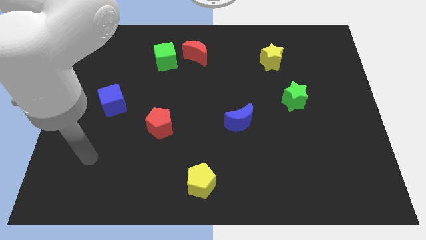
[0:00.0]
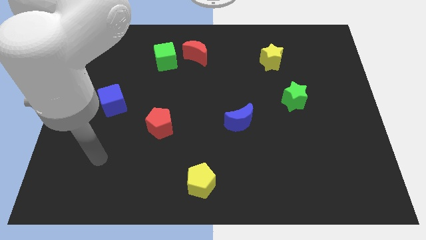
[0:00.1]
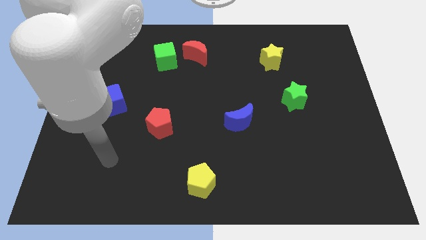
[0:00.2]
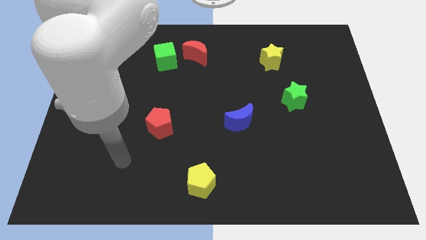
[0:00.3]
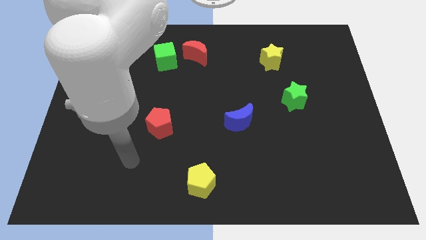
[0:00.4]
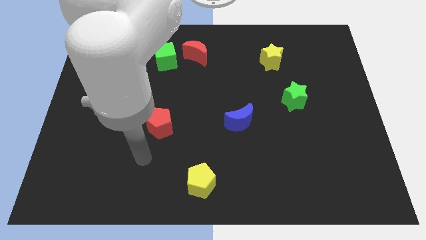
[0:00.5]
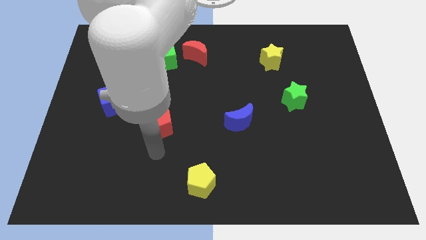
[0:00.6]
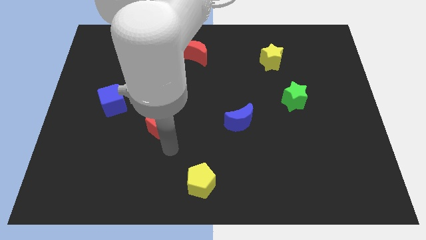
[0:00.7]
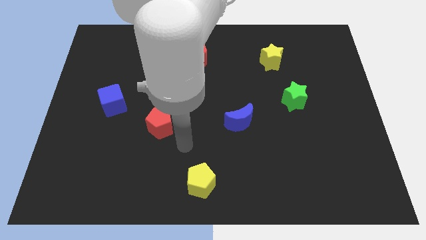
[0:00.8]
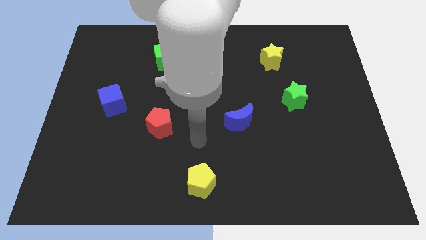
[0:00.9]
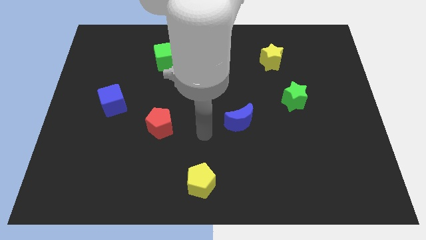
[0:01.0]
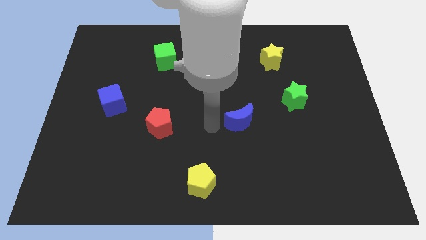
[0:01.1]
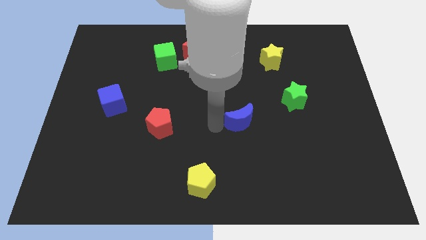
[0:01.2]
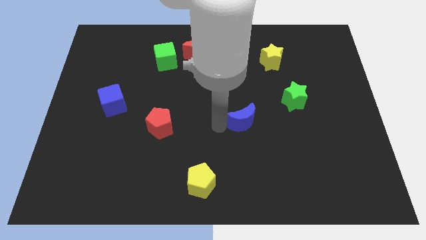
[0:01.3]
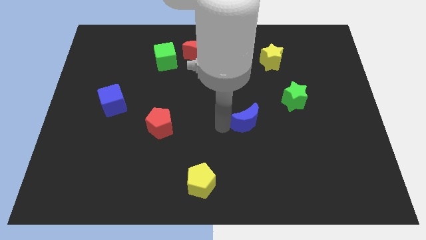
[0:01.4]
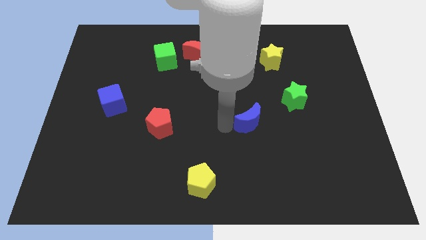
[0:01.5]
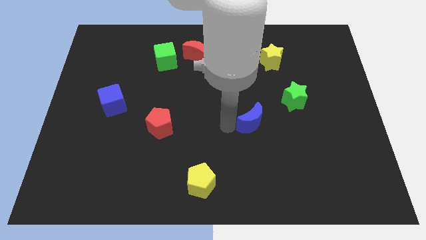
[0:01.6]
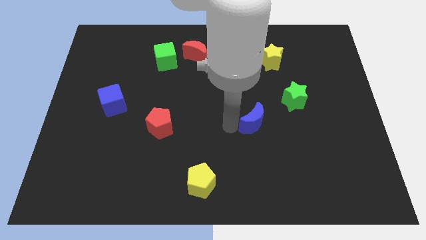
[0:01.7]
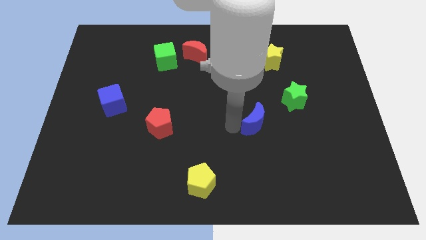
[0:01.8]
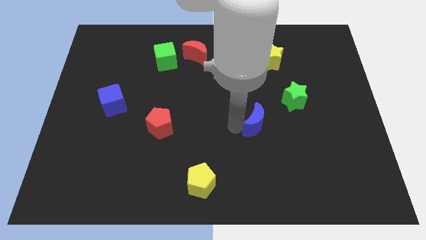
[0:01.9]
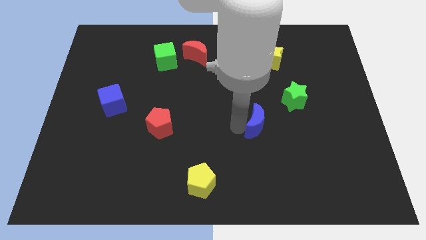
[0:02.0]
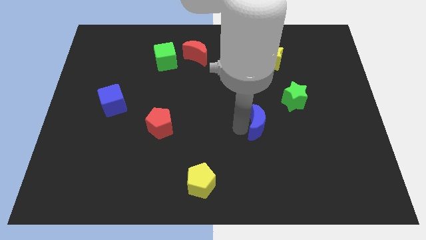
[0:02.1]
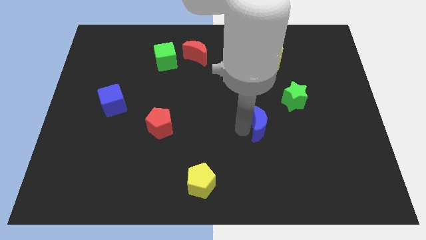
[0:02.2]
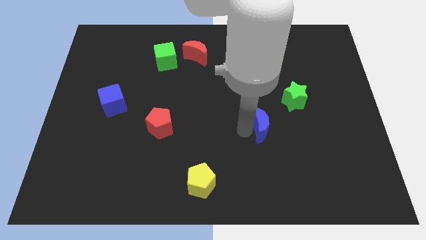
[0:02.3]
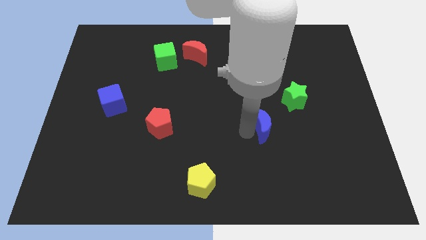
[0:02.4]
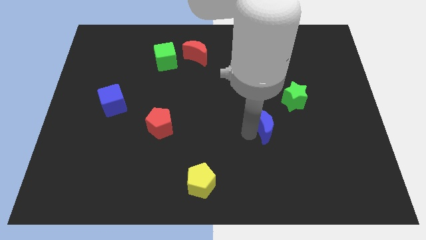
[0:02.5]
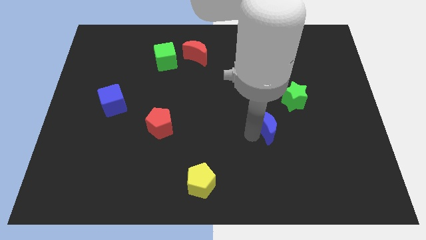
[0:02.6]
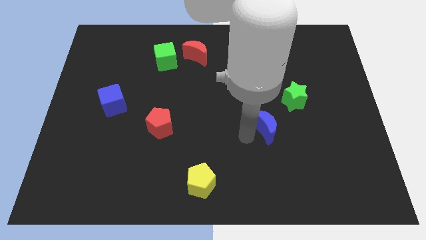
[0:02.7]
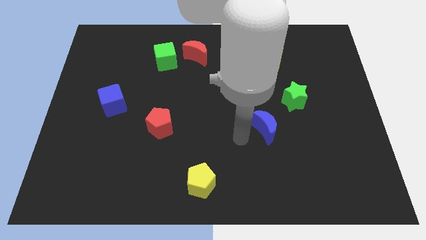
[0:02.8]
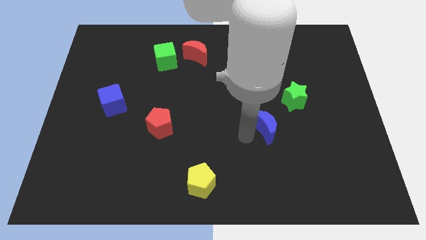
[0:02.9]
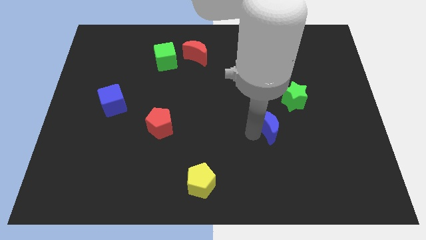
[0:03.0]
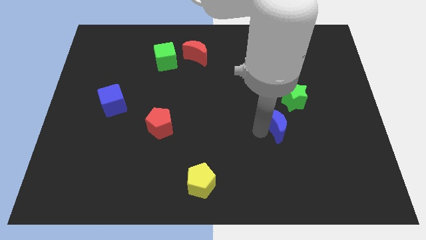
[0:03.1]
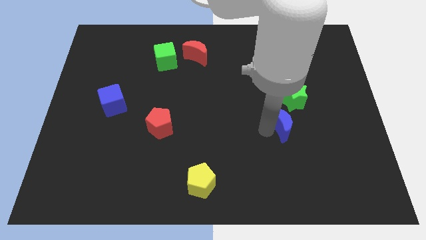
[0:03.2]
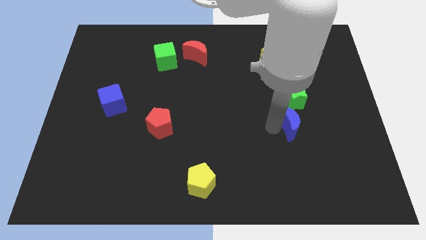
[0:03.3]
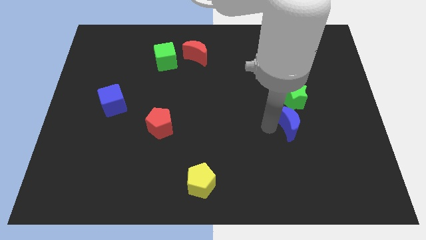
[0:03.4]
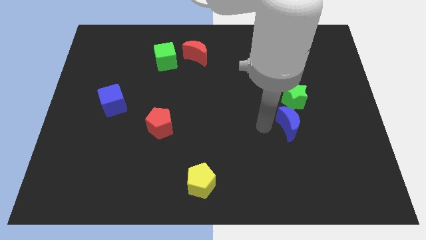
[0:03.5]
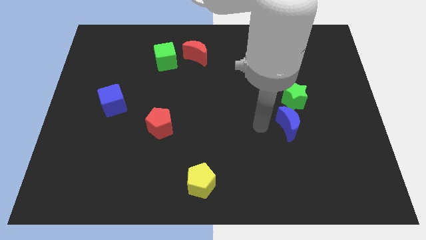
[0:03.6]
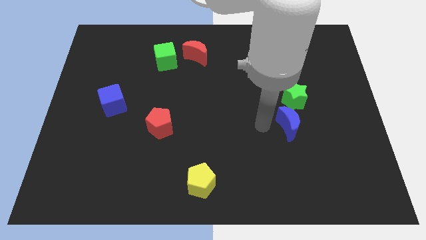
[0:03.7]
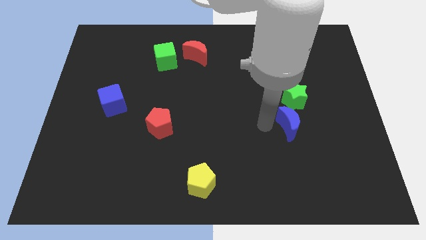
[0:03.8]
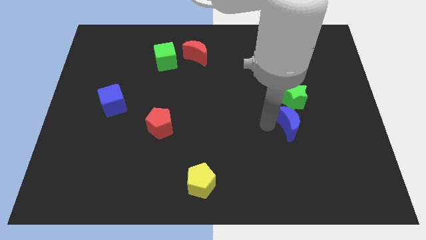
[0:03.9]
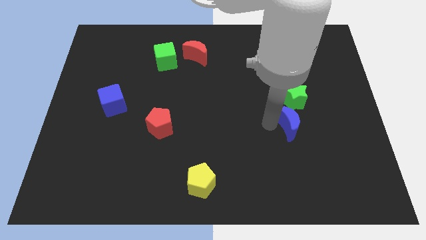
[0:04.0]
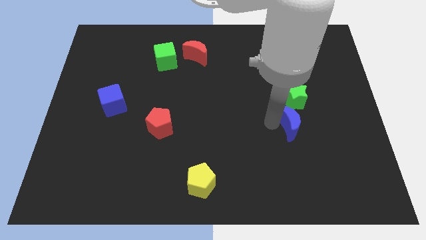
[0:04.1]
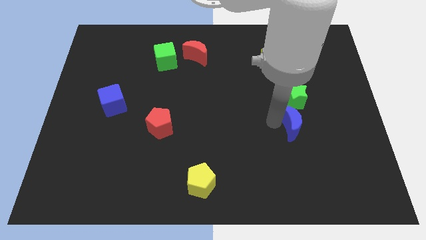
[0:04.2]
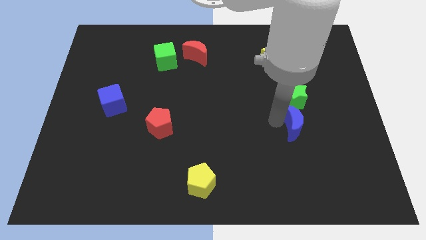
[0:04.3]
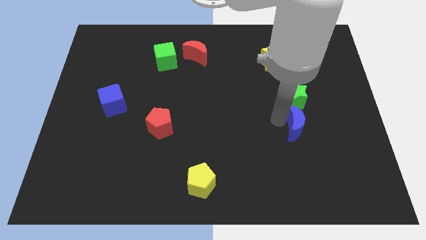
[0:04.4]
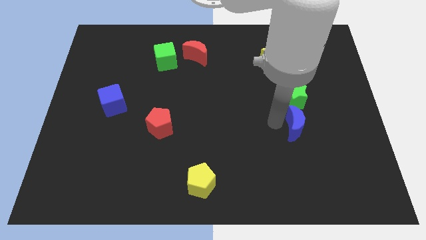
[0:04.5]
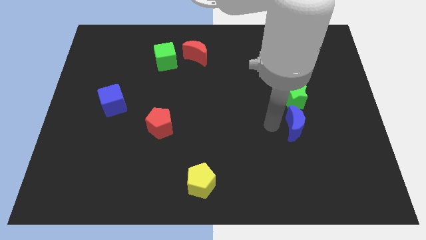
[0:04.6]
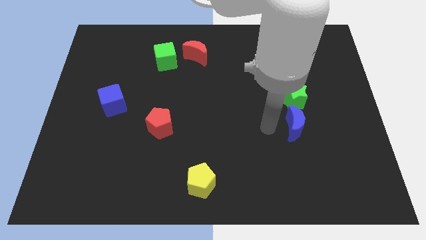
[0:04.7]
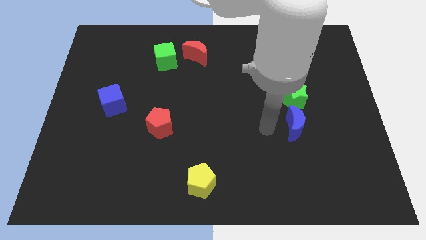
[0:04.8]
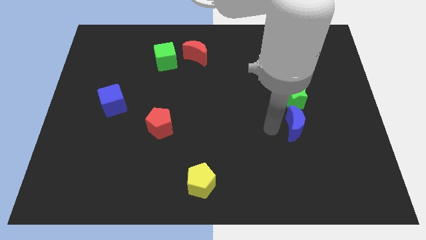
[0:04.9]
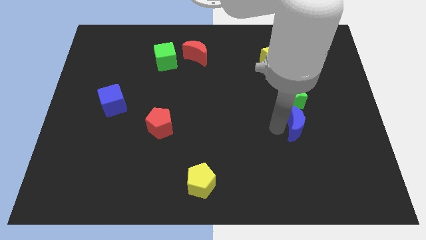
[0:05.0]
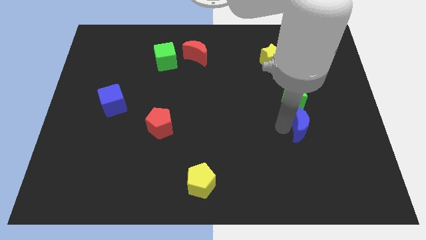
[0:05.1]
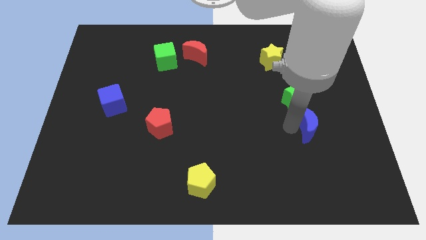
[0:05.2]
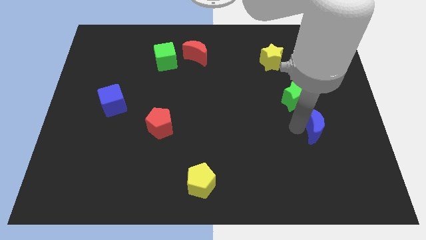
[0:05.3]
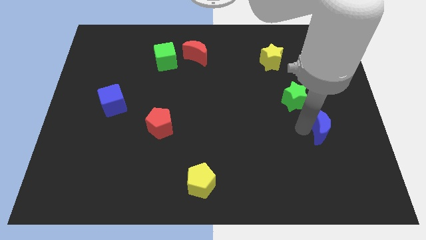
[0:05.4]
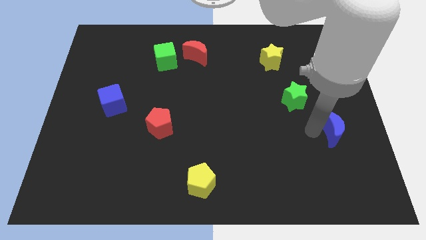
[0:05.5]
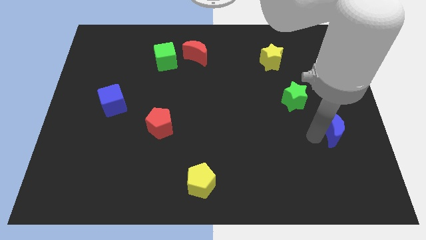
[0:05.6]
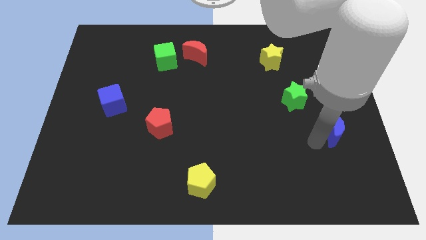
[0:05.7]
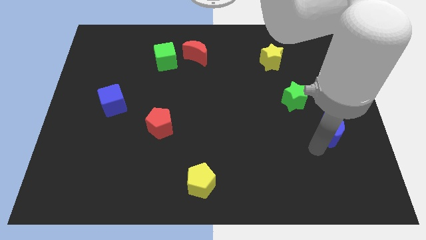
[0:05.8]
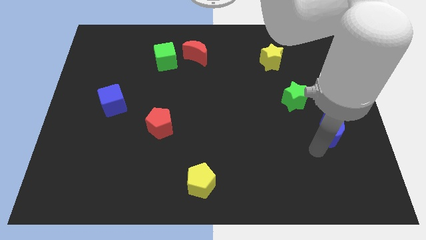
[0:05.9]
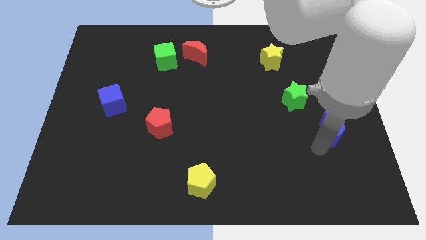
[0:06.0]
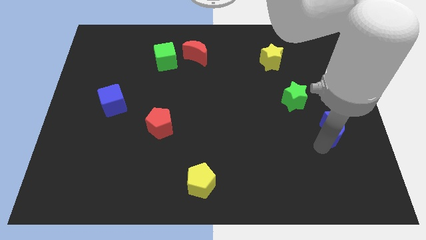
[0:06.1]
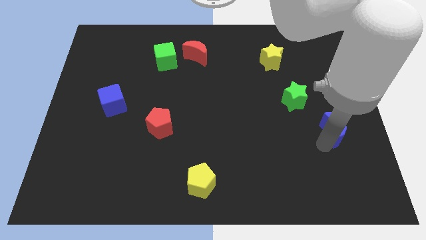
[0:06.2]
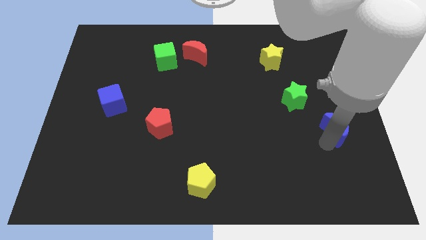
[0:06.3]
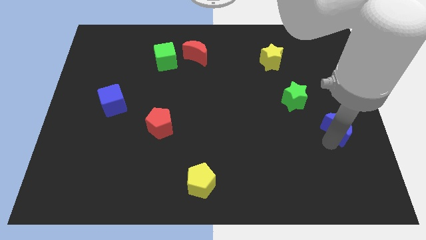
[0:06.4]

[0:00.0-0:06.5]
move the blue moon to the center right

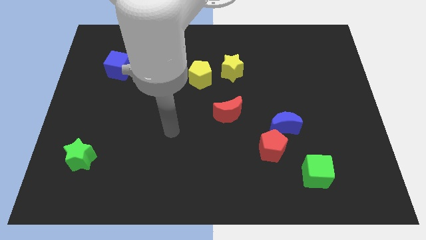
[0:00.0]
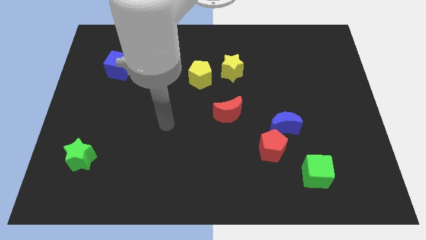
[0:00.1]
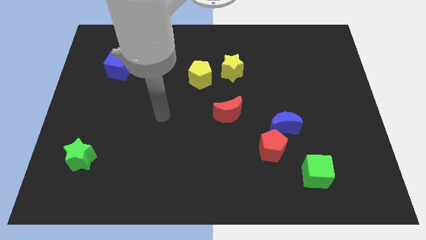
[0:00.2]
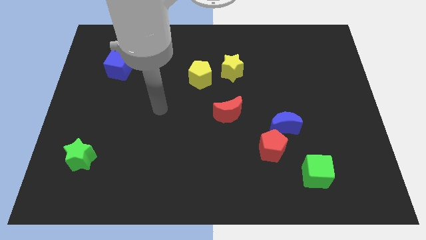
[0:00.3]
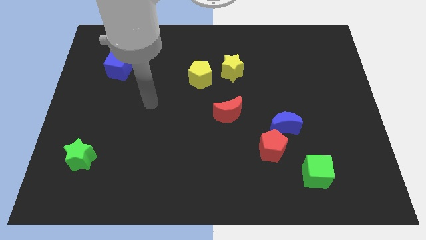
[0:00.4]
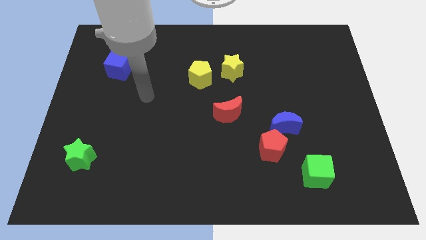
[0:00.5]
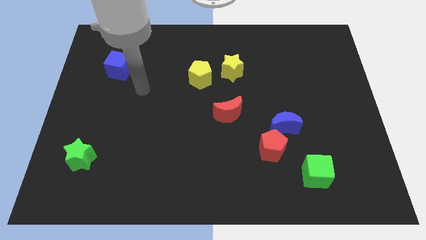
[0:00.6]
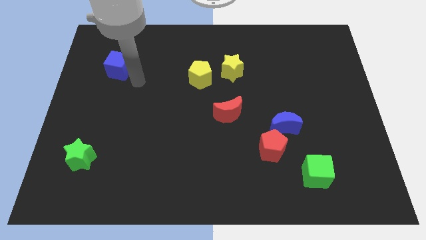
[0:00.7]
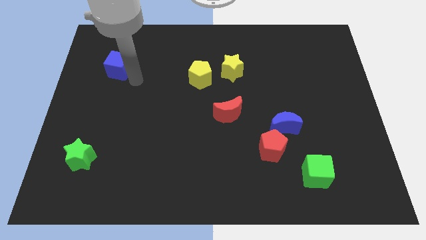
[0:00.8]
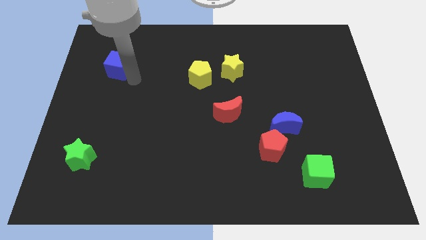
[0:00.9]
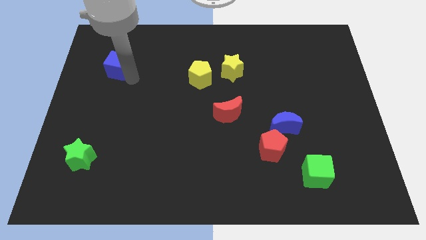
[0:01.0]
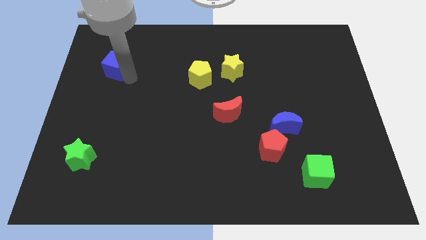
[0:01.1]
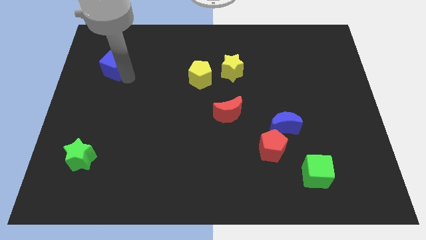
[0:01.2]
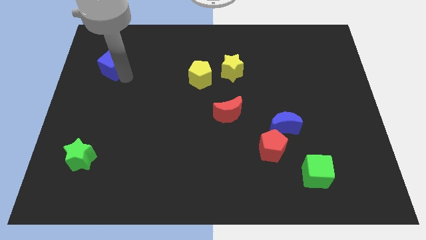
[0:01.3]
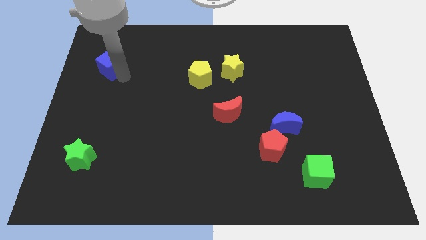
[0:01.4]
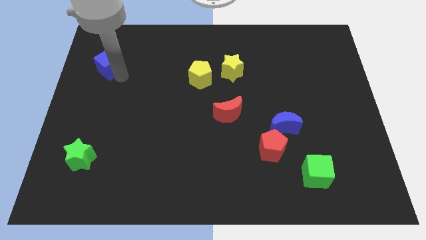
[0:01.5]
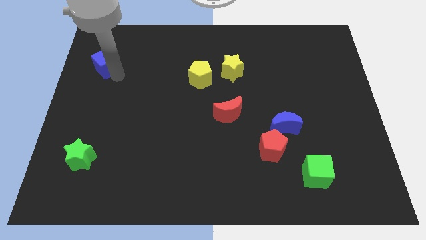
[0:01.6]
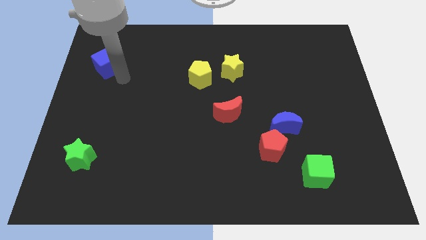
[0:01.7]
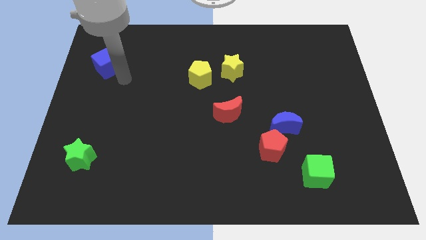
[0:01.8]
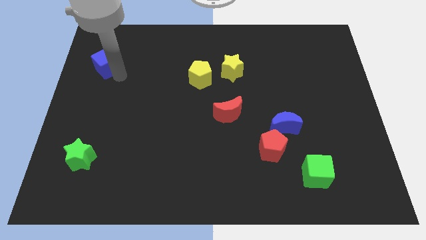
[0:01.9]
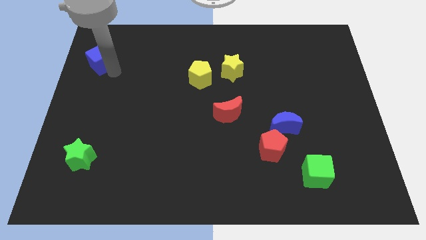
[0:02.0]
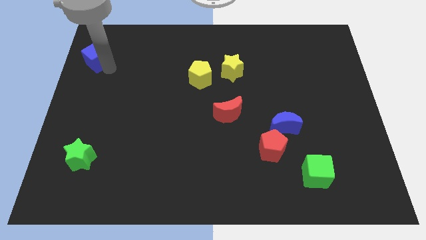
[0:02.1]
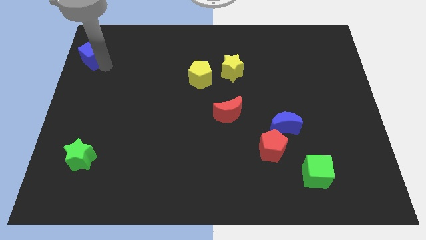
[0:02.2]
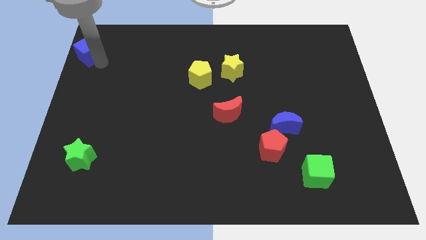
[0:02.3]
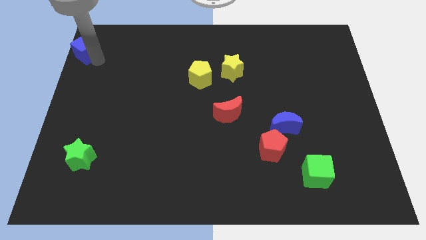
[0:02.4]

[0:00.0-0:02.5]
push the blue cube to the top left corner
